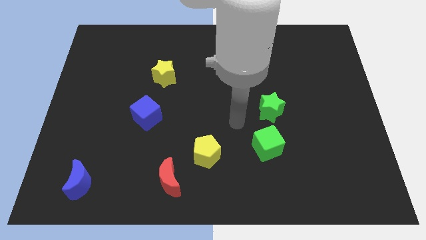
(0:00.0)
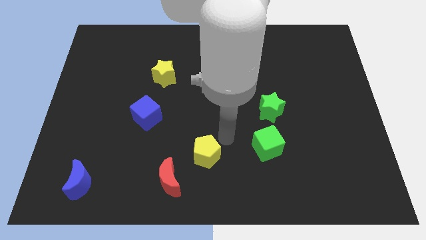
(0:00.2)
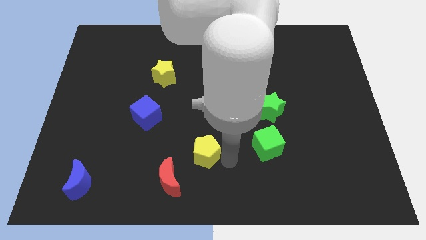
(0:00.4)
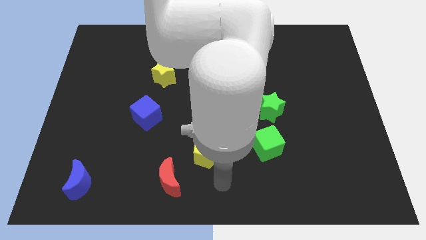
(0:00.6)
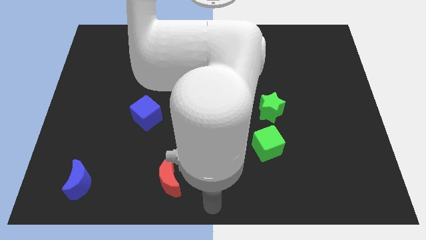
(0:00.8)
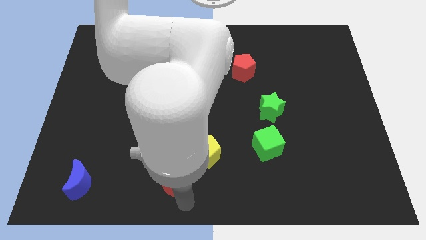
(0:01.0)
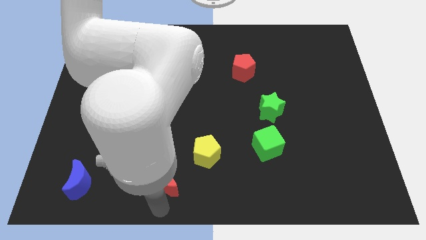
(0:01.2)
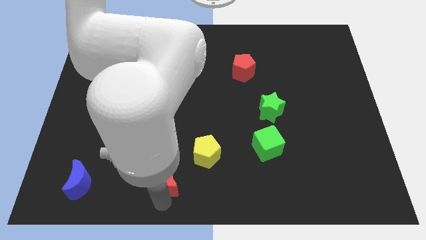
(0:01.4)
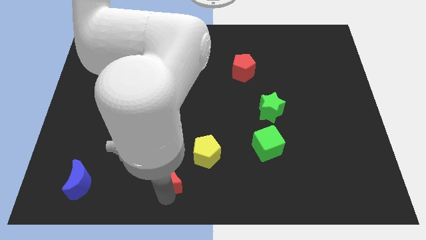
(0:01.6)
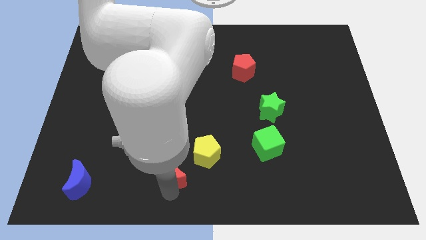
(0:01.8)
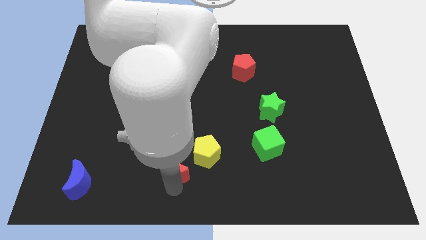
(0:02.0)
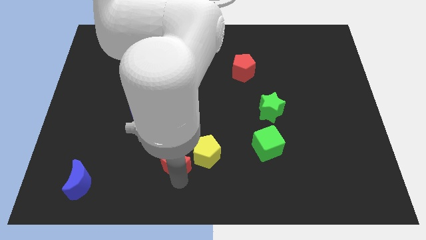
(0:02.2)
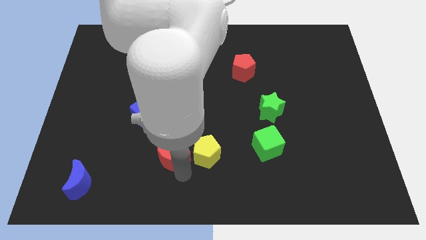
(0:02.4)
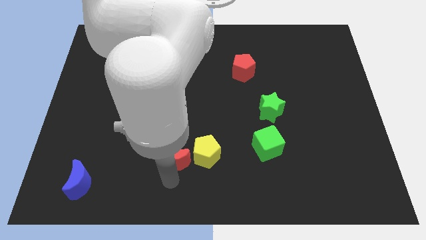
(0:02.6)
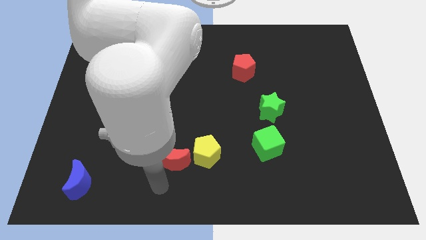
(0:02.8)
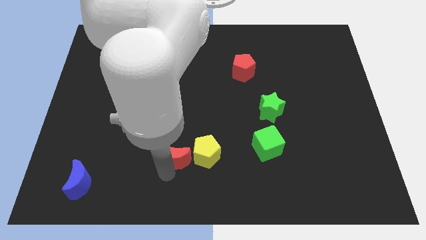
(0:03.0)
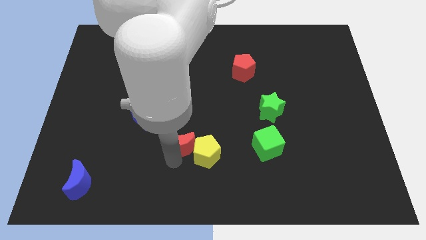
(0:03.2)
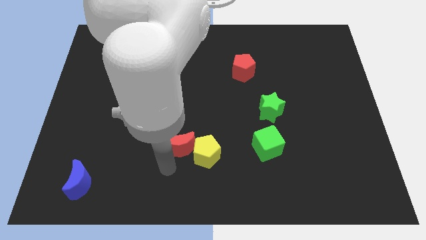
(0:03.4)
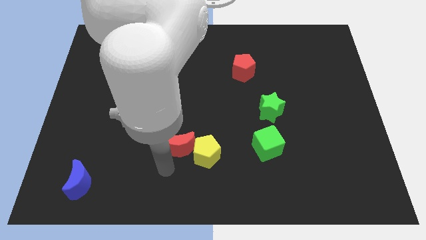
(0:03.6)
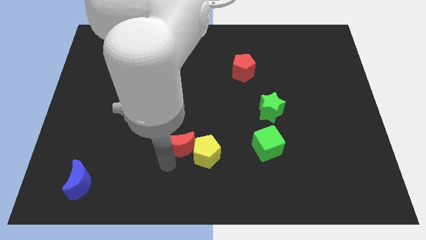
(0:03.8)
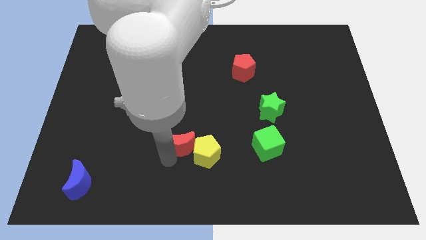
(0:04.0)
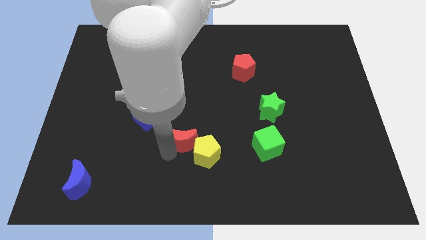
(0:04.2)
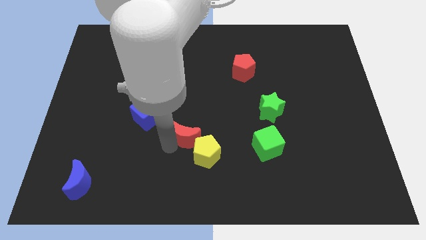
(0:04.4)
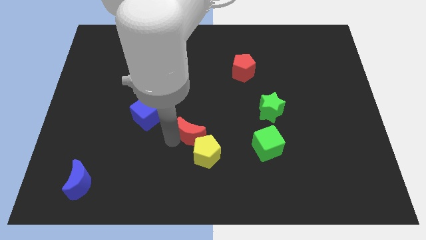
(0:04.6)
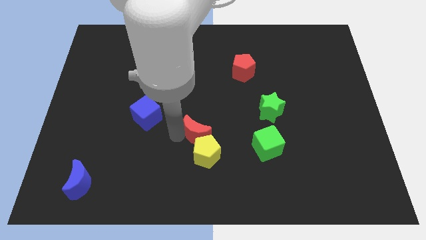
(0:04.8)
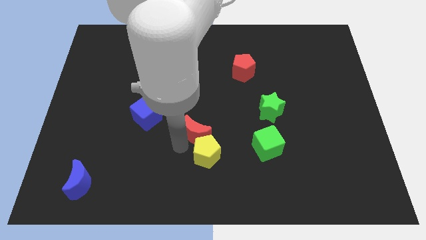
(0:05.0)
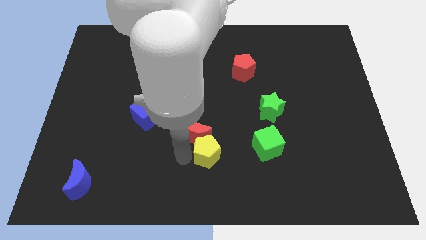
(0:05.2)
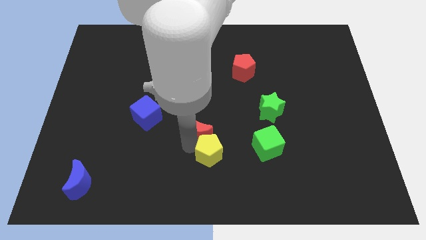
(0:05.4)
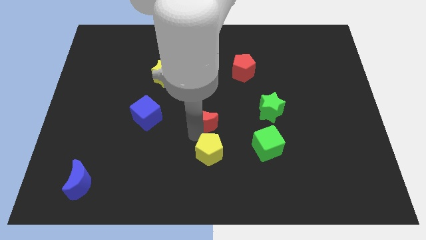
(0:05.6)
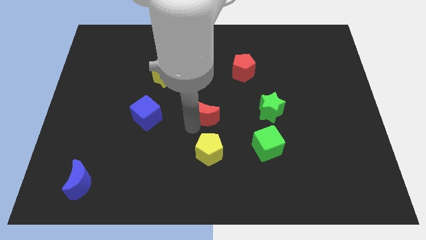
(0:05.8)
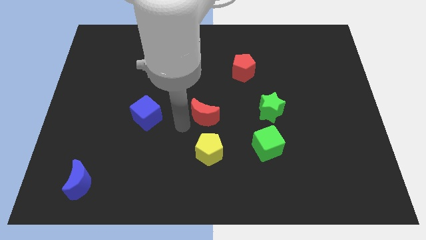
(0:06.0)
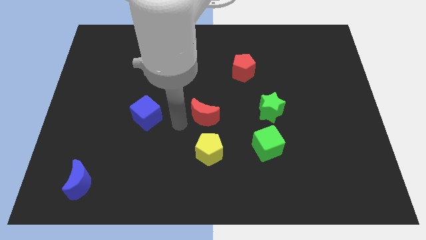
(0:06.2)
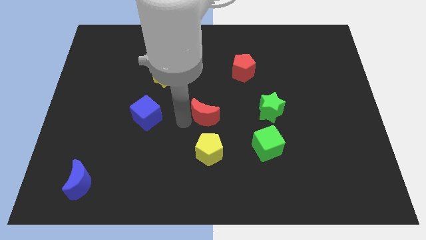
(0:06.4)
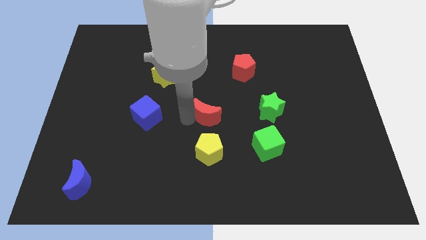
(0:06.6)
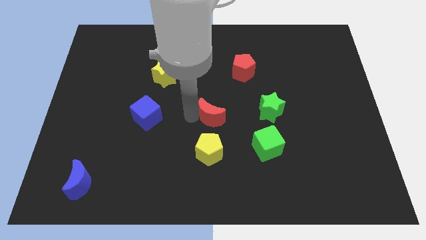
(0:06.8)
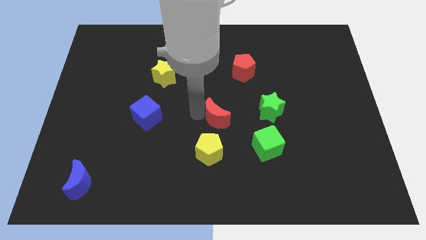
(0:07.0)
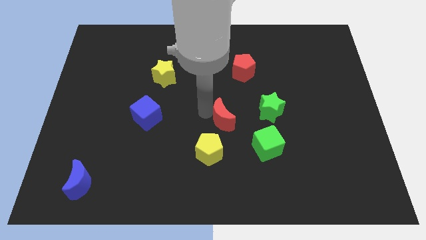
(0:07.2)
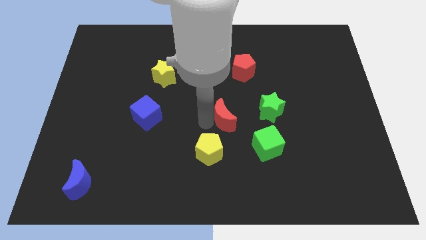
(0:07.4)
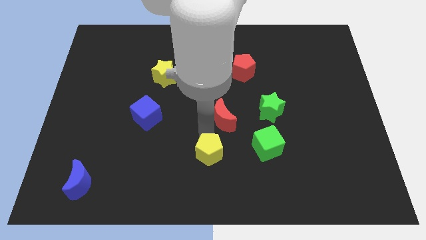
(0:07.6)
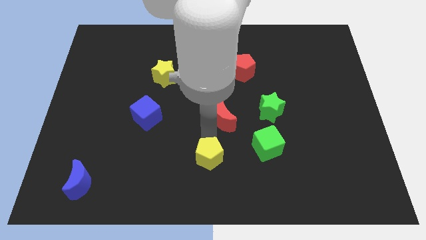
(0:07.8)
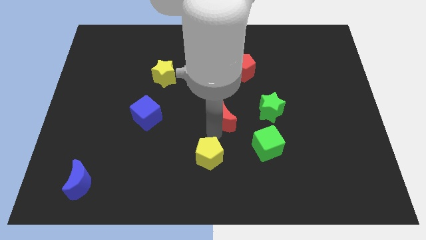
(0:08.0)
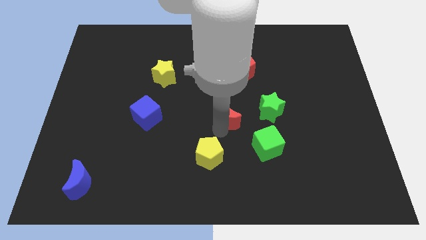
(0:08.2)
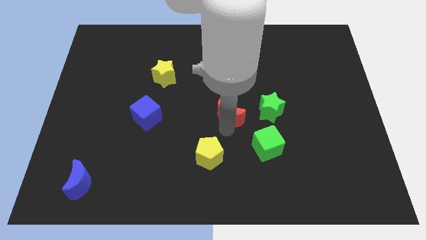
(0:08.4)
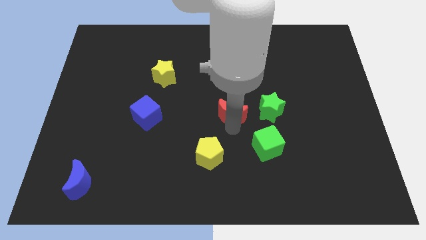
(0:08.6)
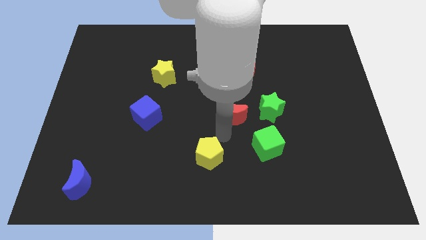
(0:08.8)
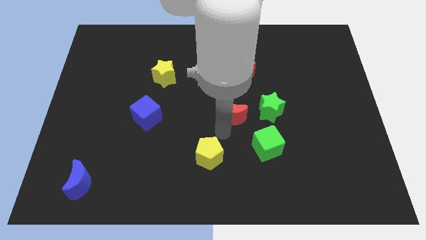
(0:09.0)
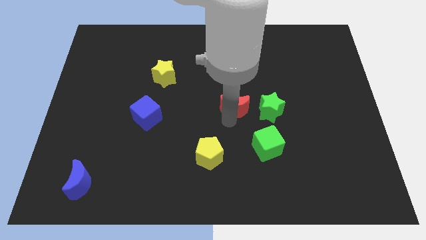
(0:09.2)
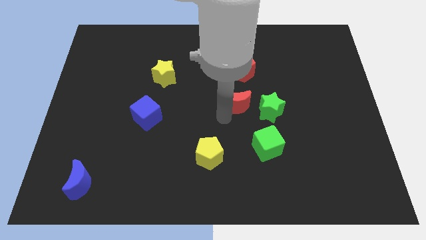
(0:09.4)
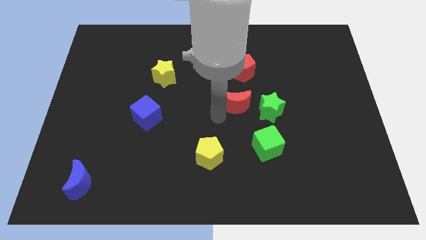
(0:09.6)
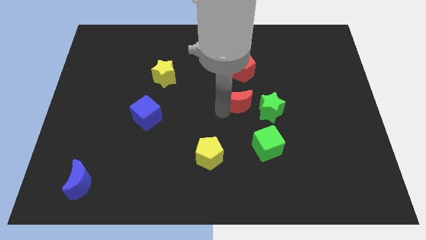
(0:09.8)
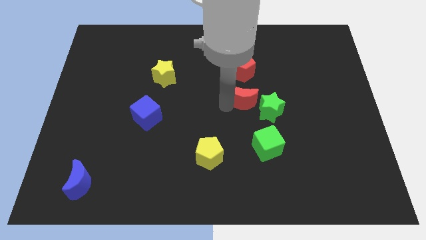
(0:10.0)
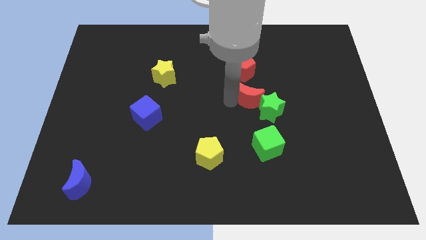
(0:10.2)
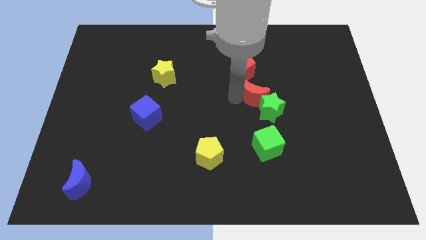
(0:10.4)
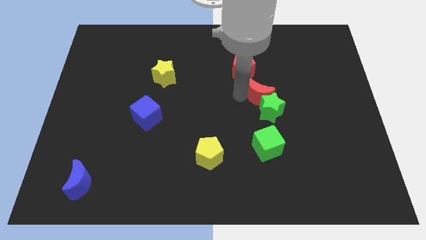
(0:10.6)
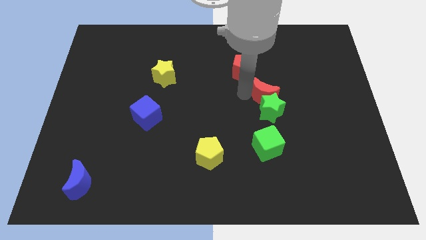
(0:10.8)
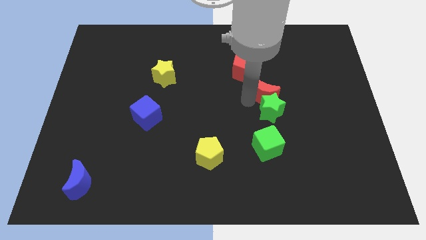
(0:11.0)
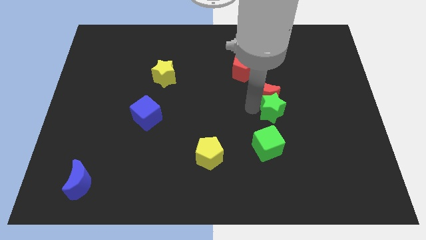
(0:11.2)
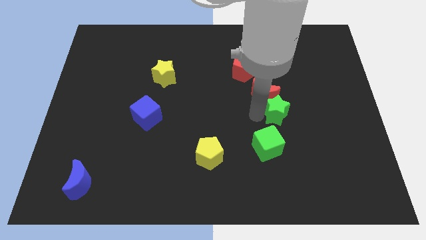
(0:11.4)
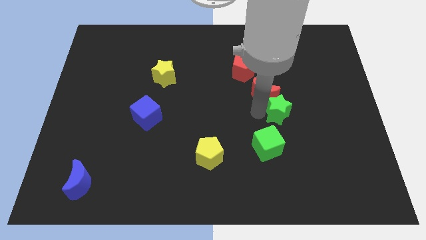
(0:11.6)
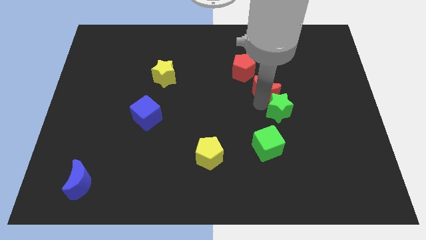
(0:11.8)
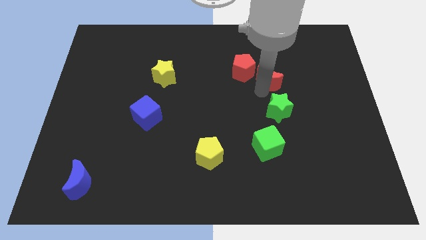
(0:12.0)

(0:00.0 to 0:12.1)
slide the red moon right of the red pentagon

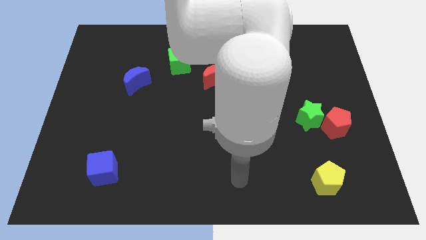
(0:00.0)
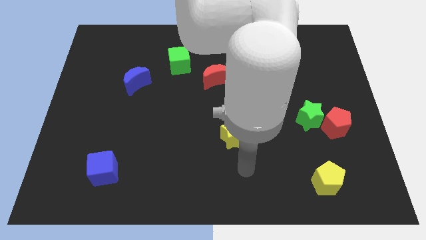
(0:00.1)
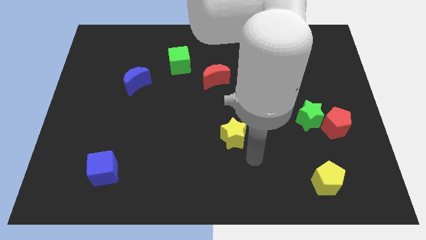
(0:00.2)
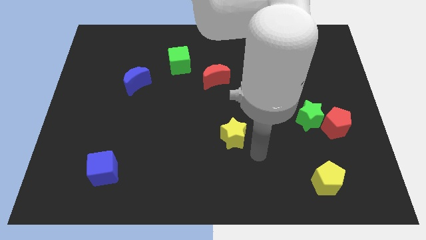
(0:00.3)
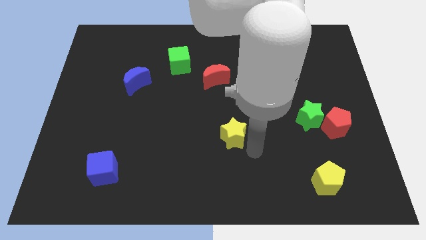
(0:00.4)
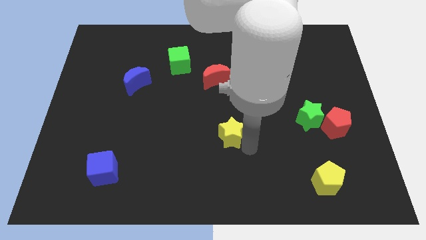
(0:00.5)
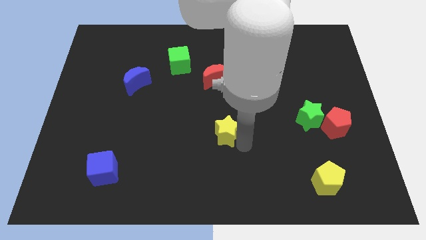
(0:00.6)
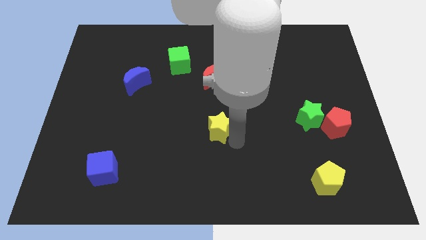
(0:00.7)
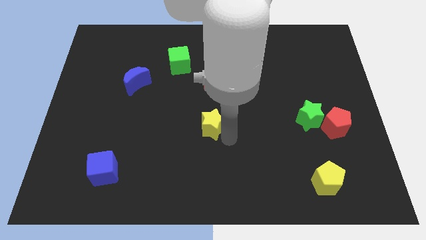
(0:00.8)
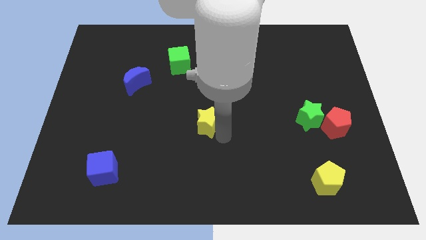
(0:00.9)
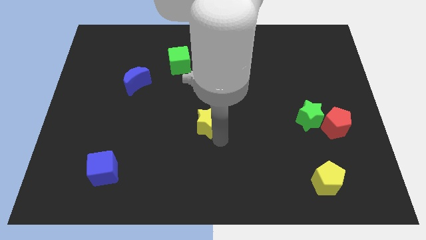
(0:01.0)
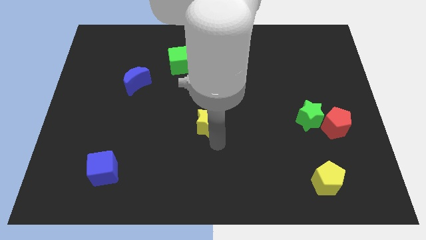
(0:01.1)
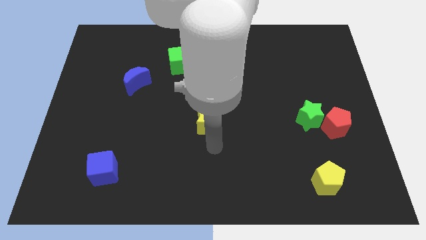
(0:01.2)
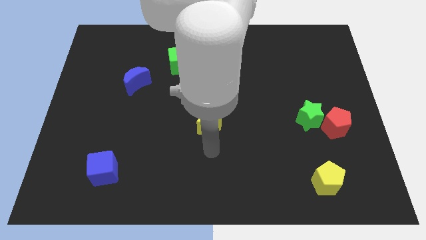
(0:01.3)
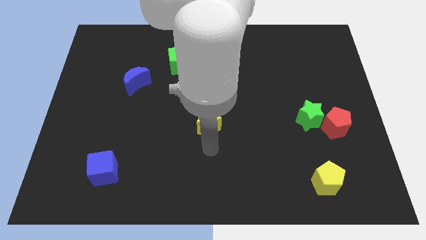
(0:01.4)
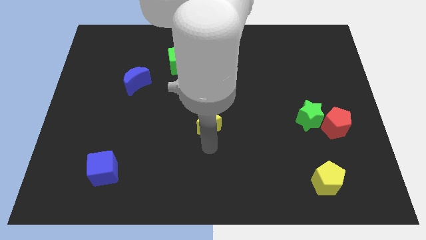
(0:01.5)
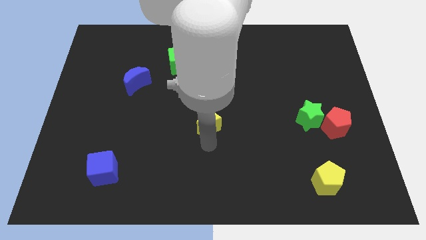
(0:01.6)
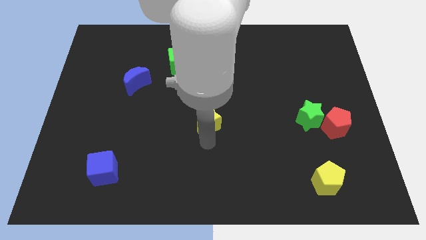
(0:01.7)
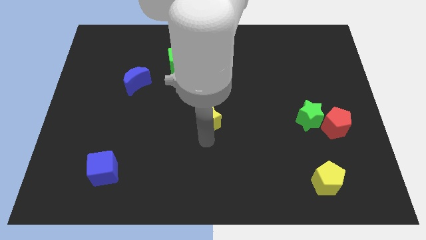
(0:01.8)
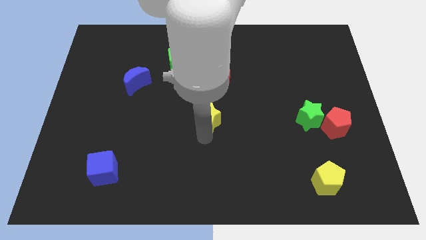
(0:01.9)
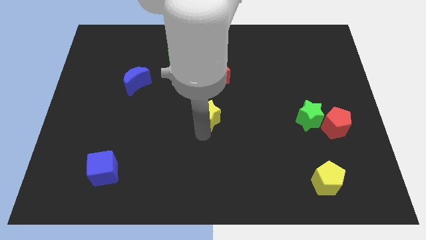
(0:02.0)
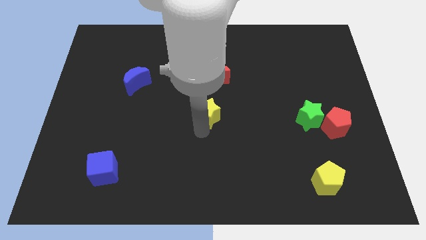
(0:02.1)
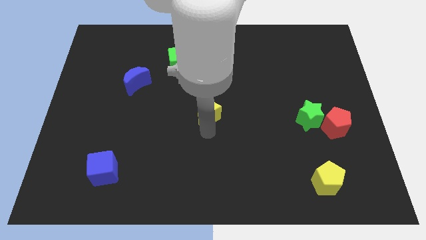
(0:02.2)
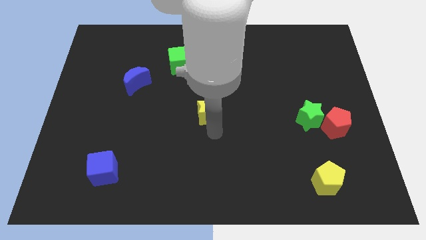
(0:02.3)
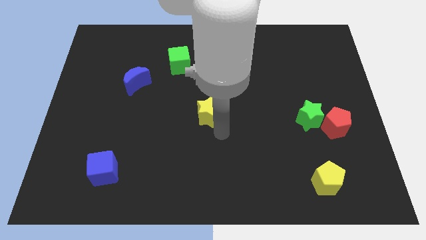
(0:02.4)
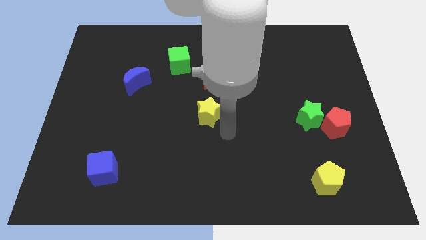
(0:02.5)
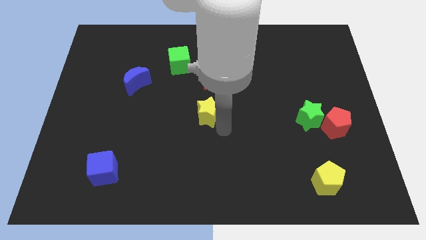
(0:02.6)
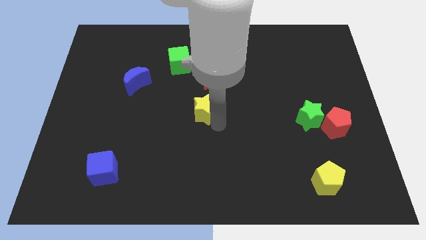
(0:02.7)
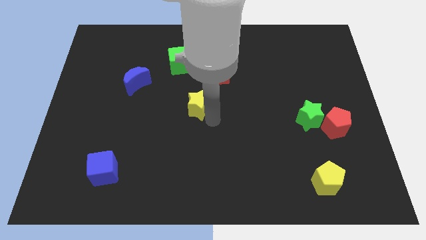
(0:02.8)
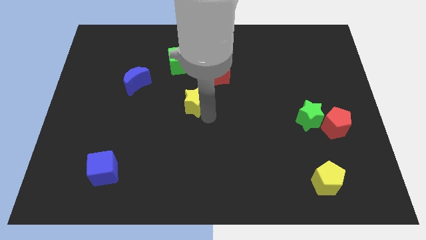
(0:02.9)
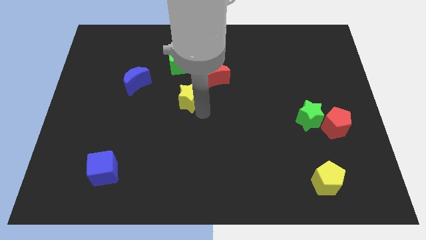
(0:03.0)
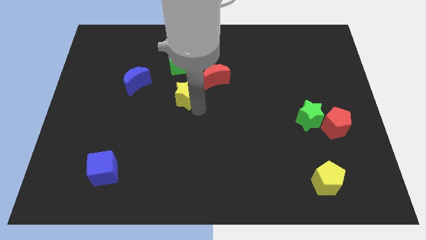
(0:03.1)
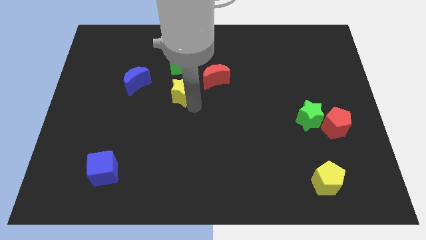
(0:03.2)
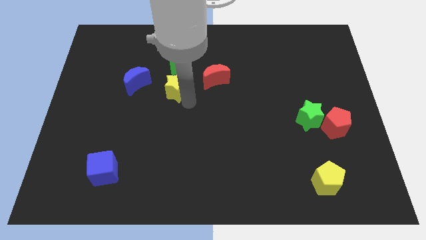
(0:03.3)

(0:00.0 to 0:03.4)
move the yellow star to the left of the red moon
